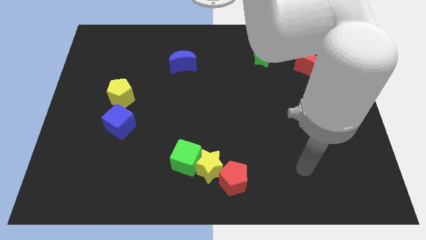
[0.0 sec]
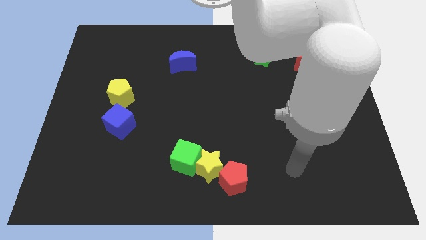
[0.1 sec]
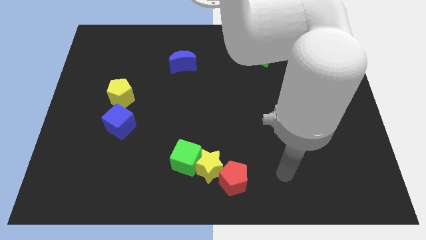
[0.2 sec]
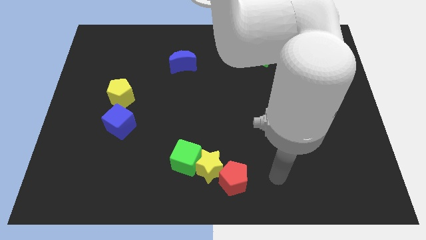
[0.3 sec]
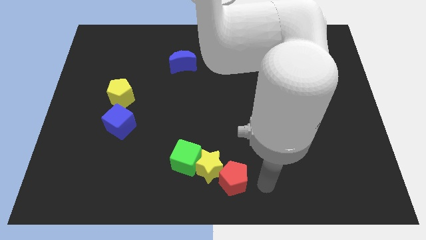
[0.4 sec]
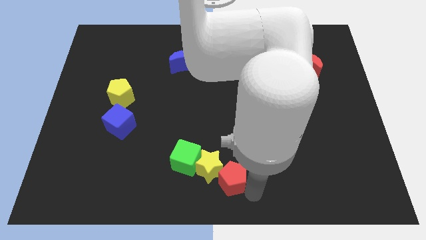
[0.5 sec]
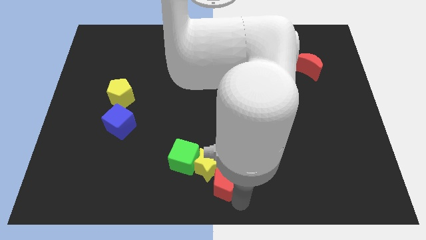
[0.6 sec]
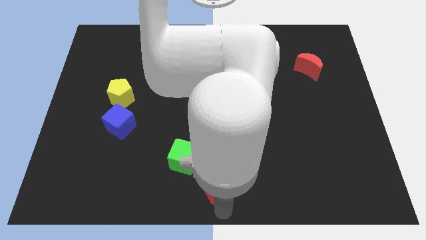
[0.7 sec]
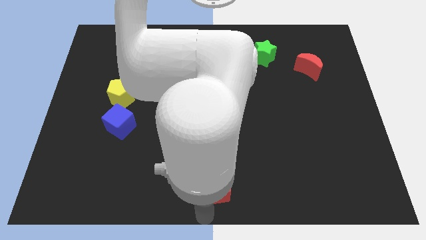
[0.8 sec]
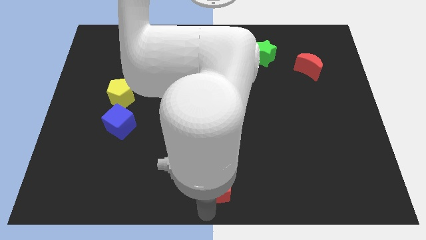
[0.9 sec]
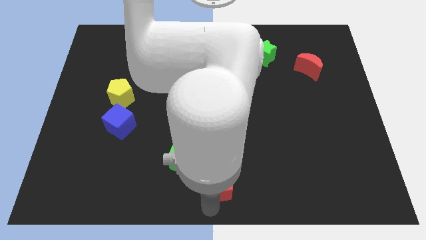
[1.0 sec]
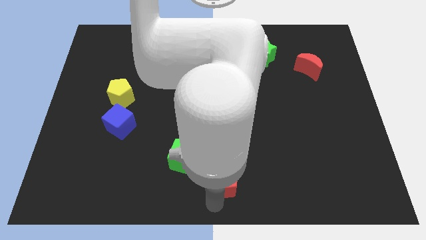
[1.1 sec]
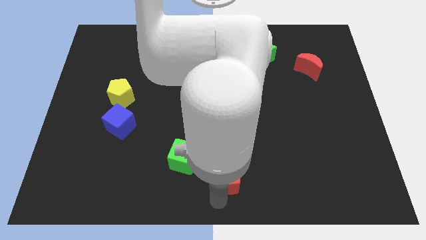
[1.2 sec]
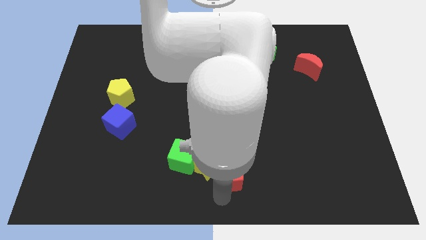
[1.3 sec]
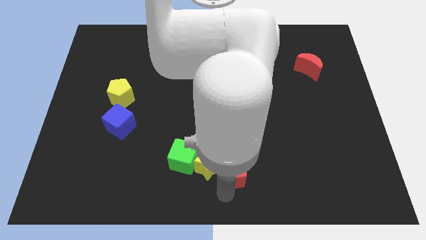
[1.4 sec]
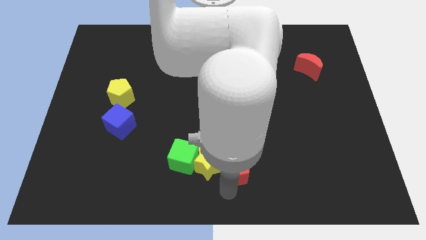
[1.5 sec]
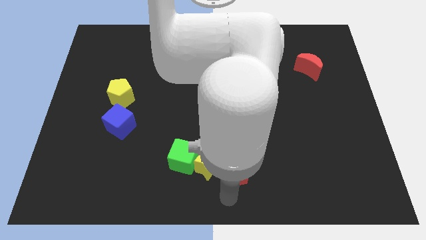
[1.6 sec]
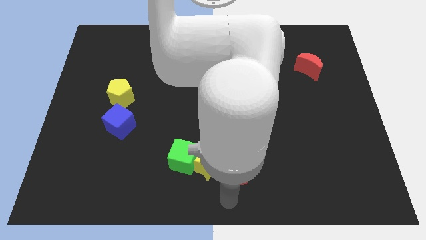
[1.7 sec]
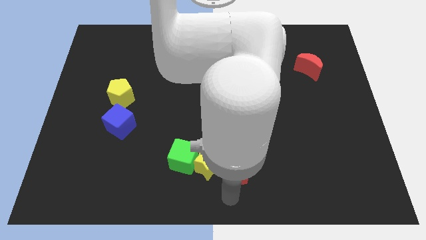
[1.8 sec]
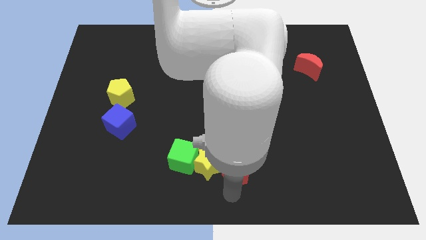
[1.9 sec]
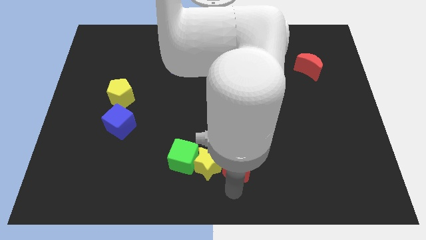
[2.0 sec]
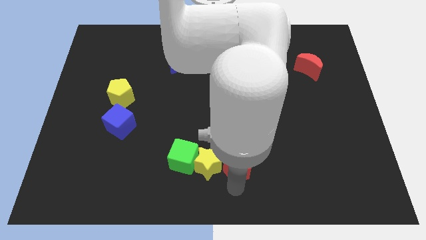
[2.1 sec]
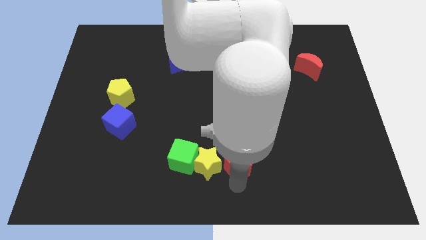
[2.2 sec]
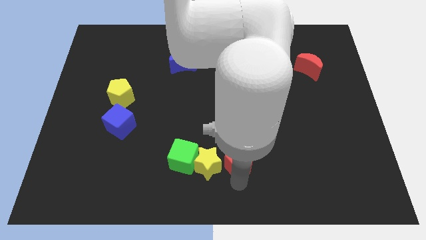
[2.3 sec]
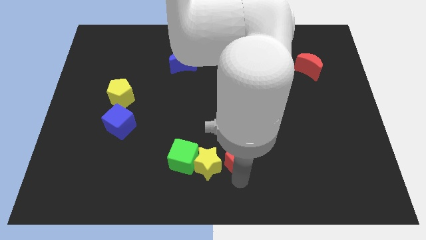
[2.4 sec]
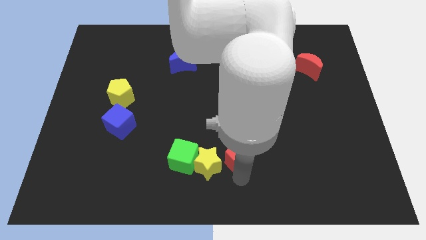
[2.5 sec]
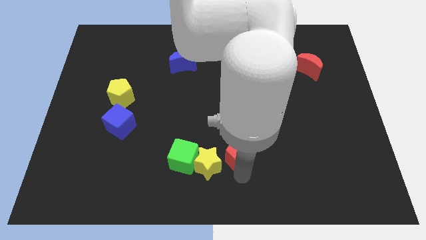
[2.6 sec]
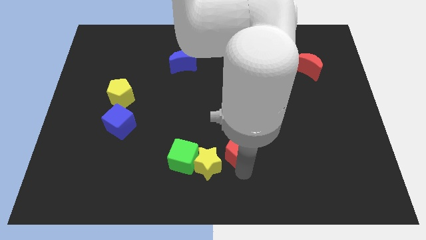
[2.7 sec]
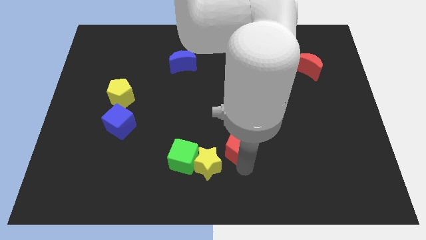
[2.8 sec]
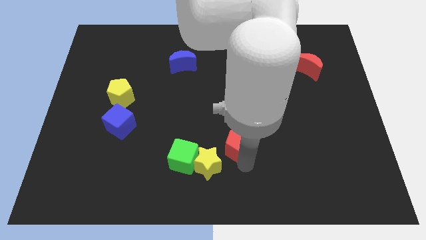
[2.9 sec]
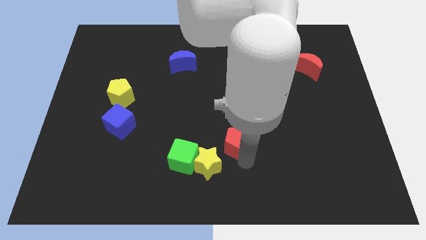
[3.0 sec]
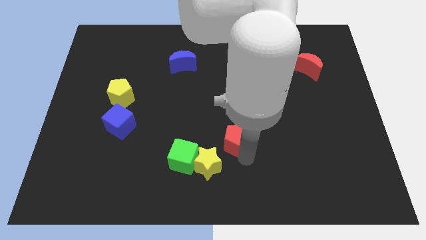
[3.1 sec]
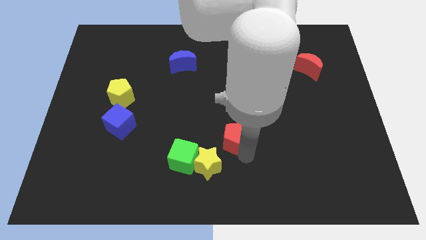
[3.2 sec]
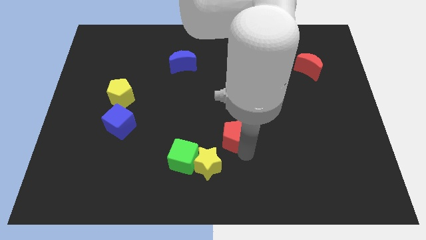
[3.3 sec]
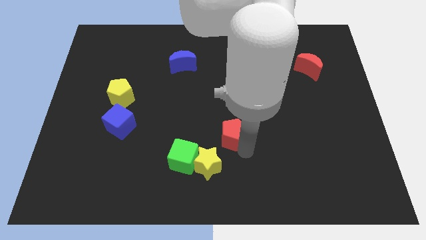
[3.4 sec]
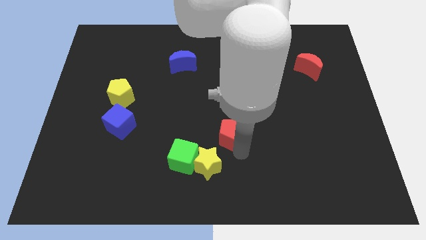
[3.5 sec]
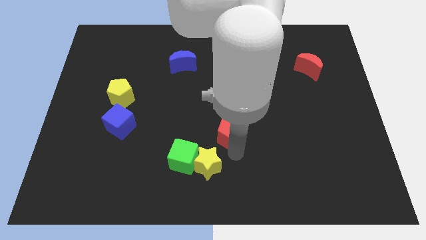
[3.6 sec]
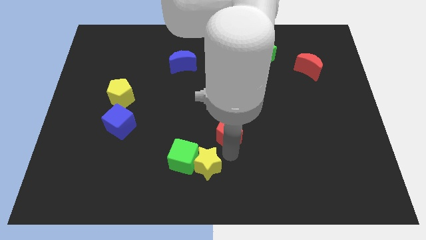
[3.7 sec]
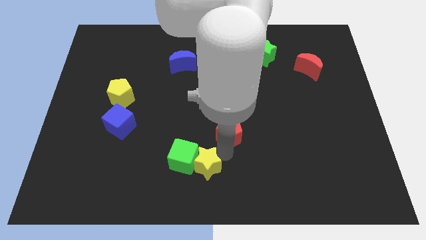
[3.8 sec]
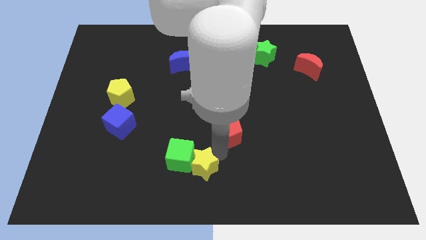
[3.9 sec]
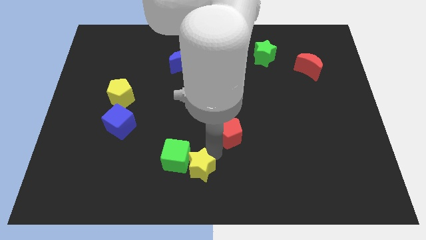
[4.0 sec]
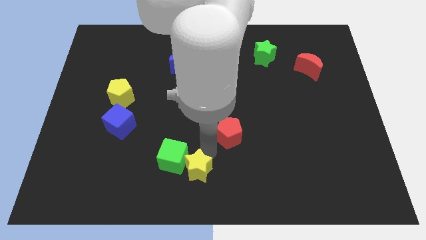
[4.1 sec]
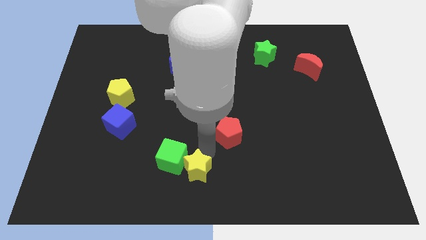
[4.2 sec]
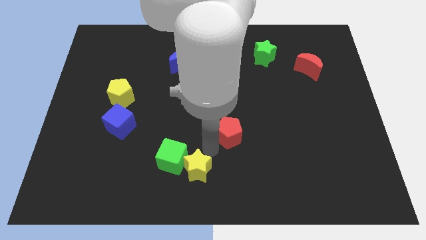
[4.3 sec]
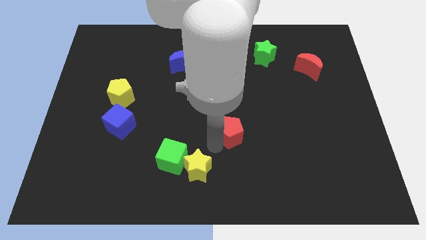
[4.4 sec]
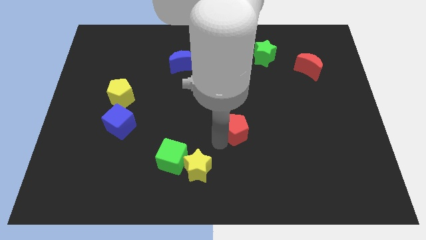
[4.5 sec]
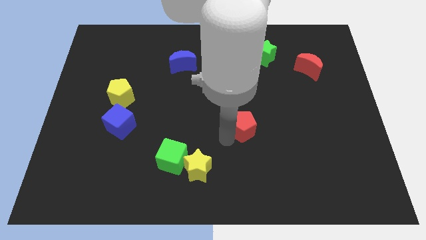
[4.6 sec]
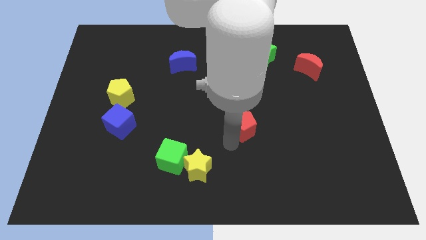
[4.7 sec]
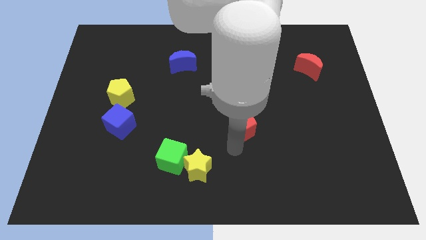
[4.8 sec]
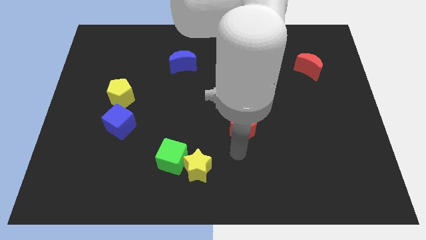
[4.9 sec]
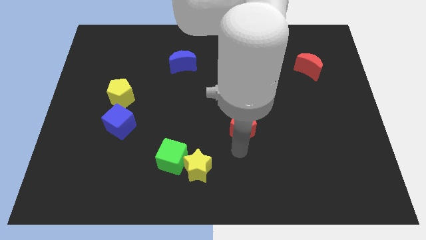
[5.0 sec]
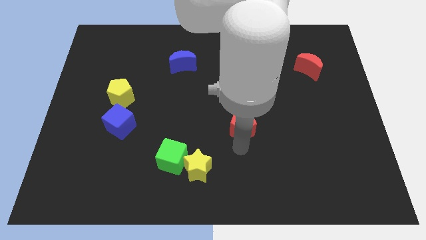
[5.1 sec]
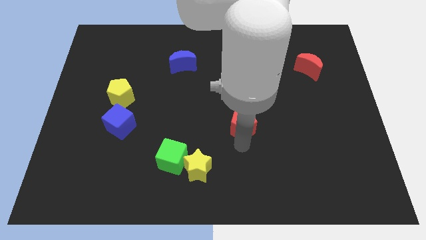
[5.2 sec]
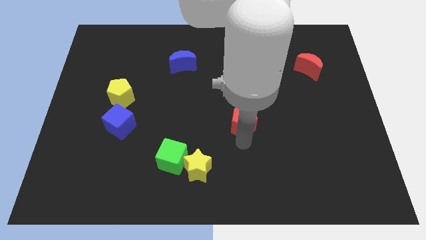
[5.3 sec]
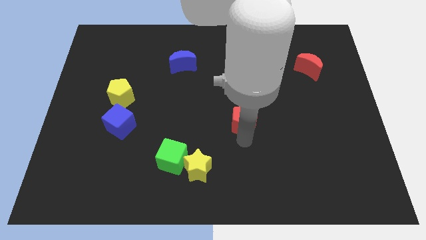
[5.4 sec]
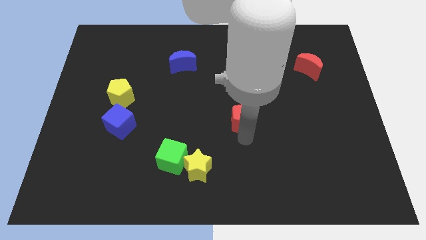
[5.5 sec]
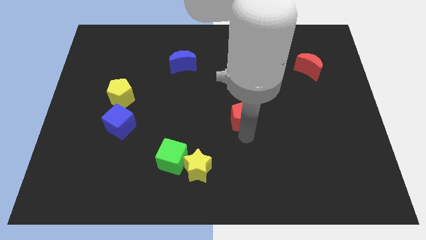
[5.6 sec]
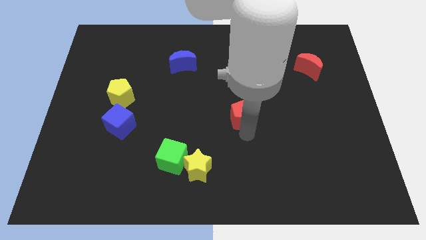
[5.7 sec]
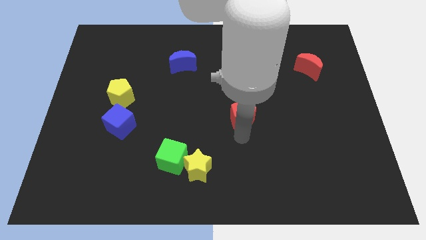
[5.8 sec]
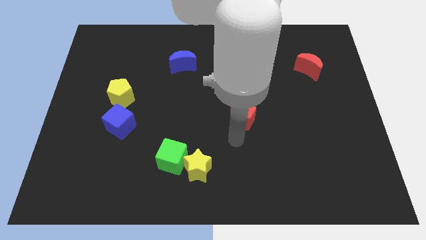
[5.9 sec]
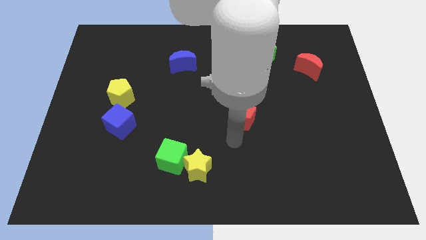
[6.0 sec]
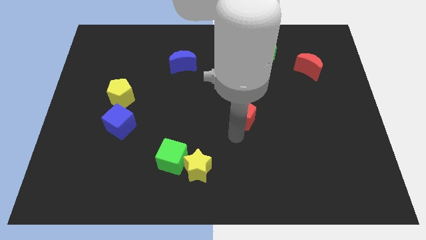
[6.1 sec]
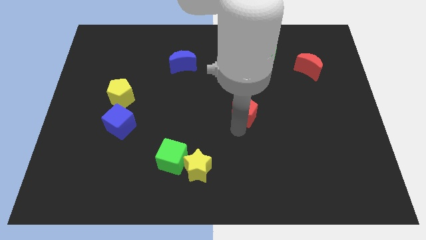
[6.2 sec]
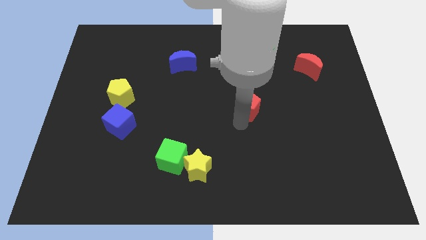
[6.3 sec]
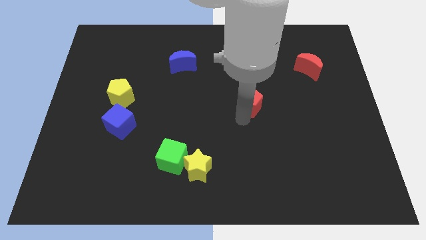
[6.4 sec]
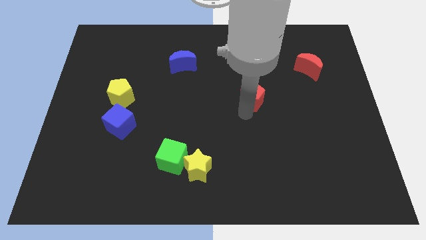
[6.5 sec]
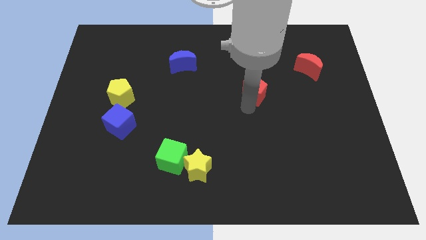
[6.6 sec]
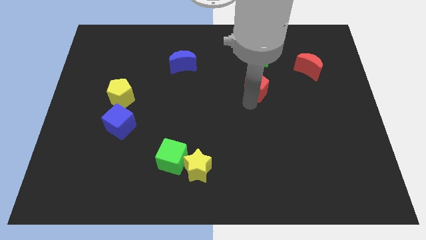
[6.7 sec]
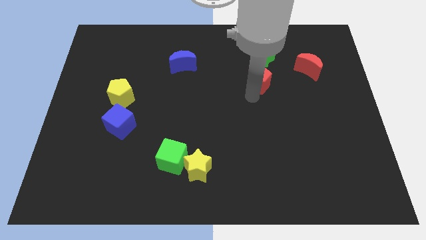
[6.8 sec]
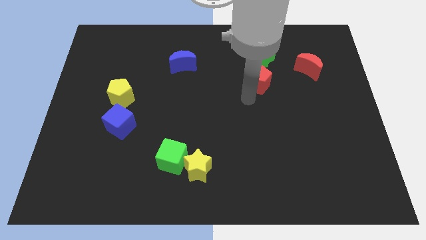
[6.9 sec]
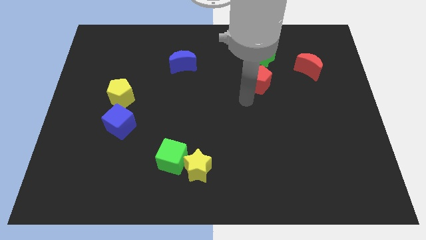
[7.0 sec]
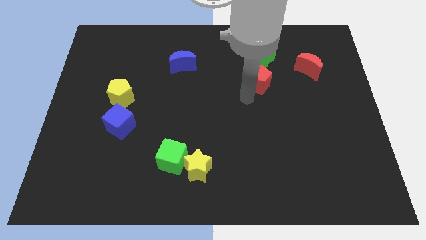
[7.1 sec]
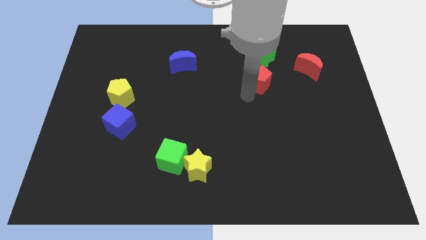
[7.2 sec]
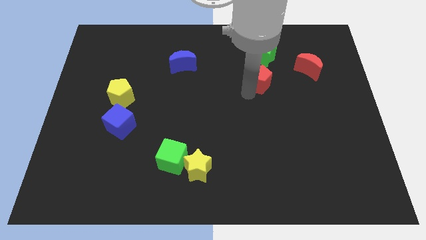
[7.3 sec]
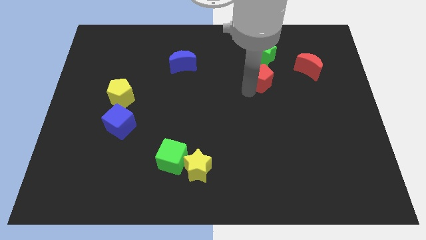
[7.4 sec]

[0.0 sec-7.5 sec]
push the red pentagon to the left of the red moon
